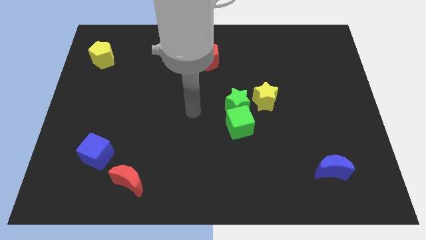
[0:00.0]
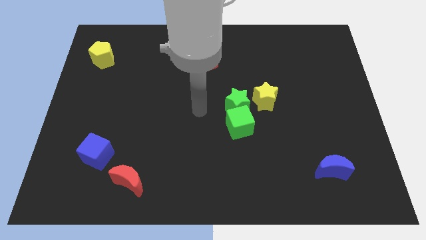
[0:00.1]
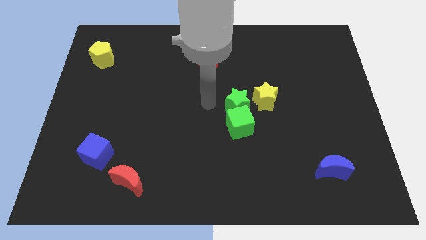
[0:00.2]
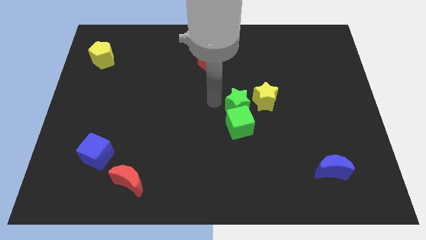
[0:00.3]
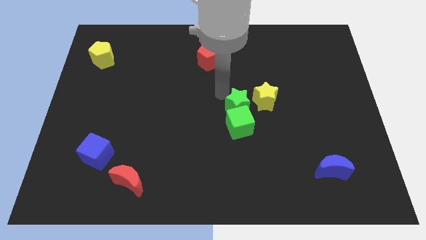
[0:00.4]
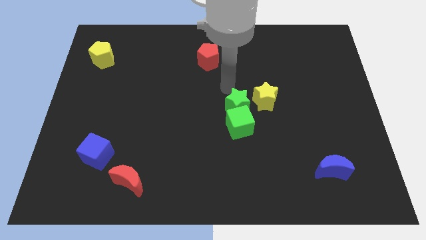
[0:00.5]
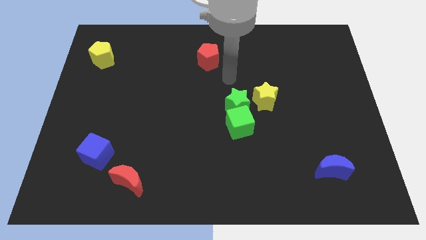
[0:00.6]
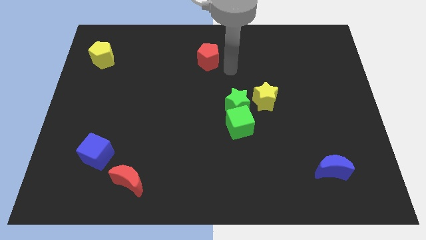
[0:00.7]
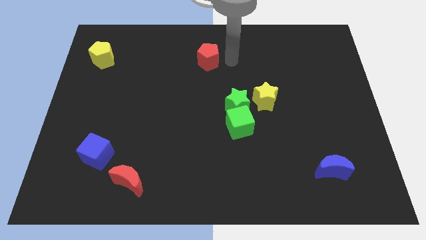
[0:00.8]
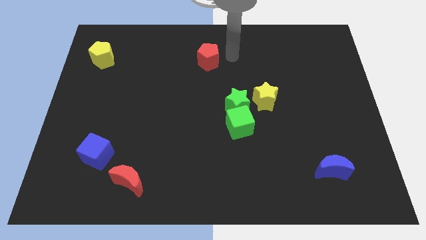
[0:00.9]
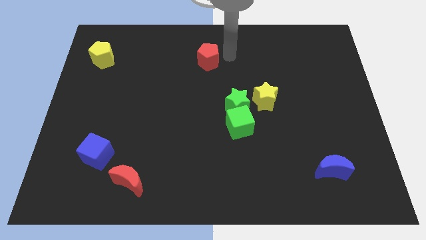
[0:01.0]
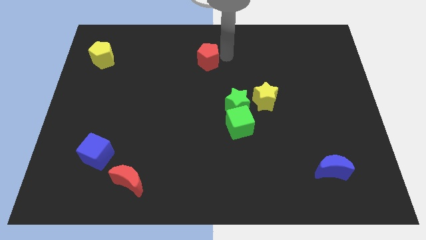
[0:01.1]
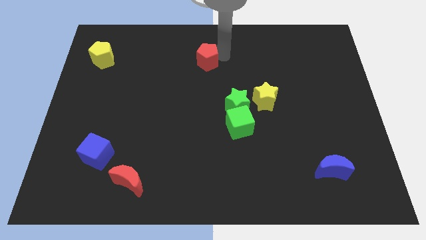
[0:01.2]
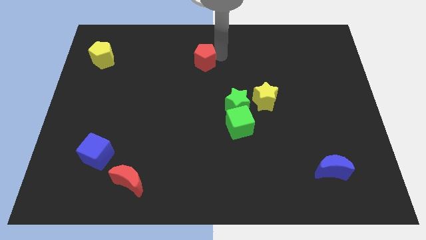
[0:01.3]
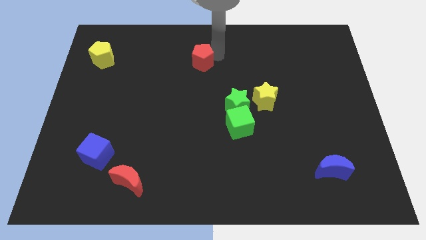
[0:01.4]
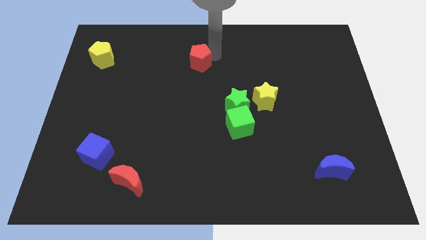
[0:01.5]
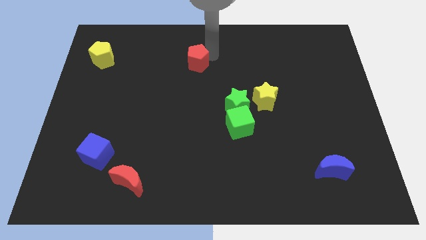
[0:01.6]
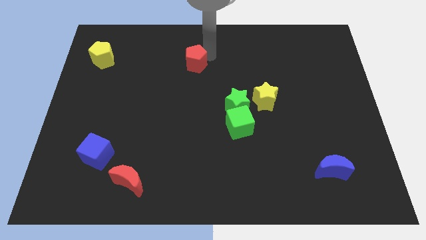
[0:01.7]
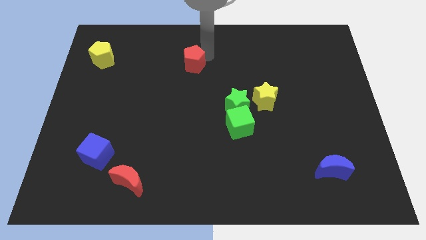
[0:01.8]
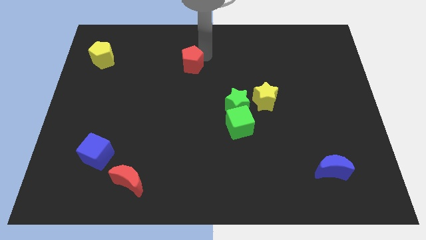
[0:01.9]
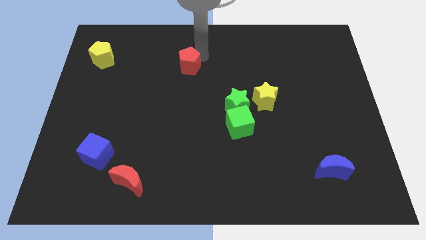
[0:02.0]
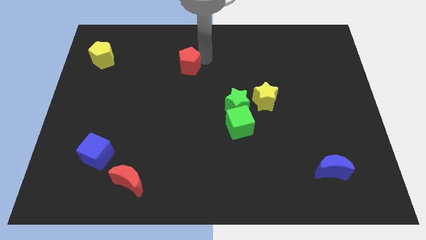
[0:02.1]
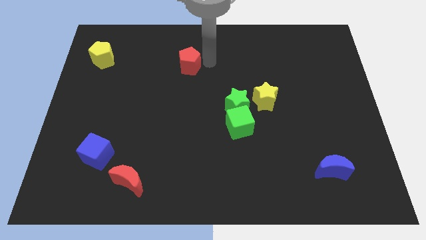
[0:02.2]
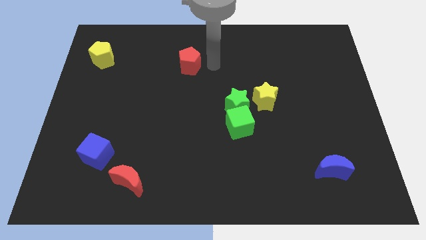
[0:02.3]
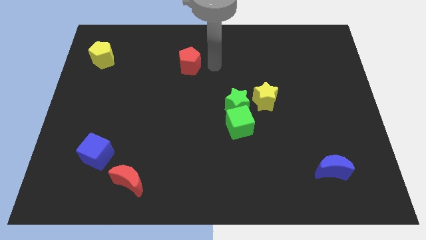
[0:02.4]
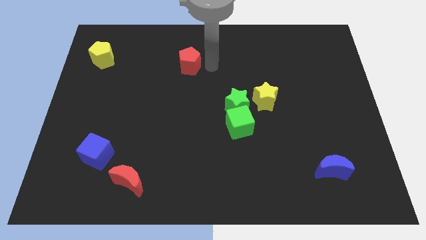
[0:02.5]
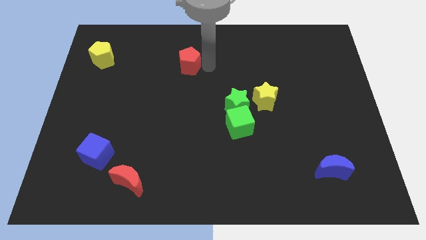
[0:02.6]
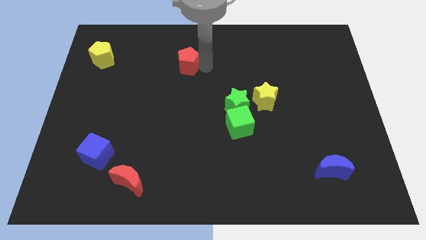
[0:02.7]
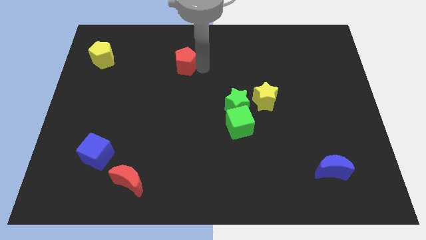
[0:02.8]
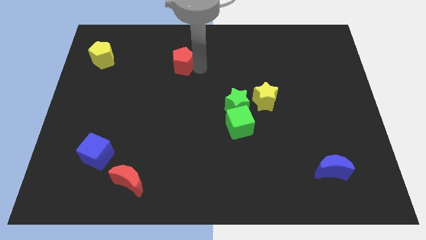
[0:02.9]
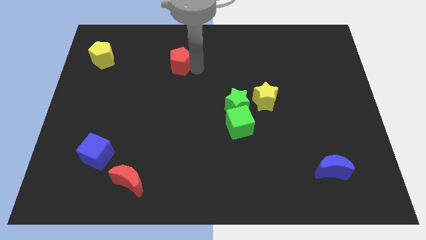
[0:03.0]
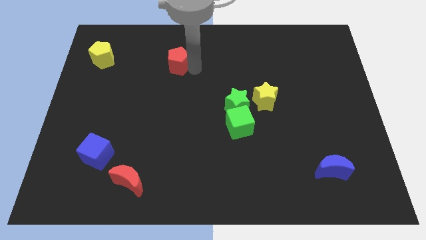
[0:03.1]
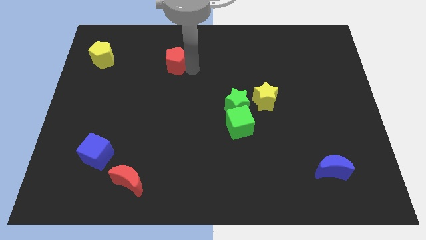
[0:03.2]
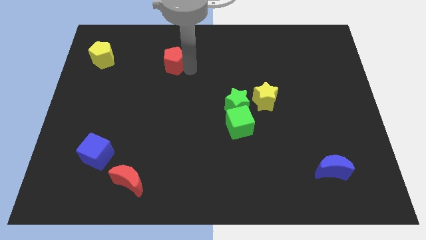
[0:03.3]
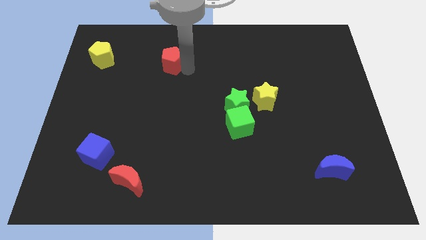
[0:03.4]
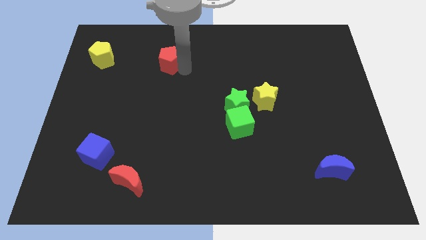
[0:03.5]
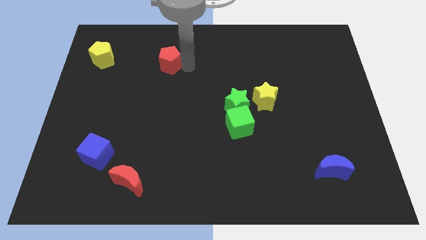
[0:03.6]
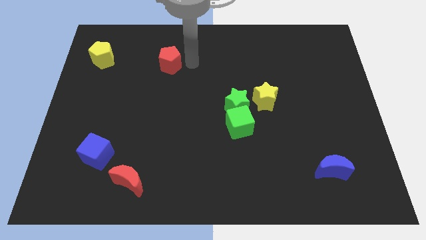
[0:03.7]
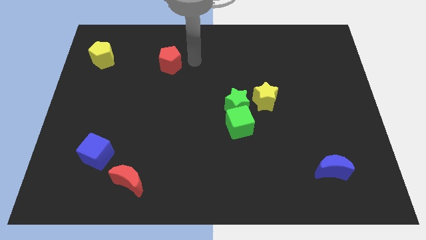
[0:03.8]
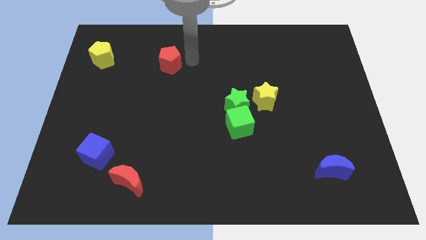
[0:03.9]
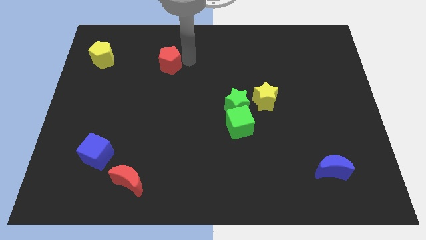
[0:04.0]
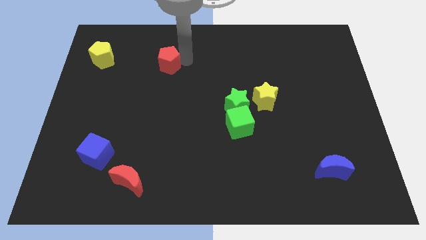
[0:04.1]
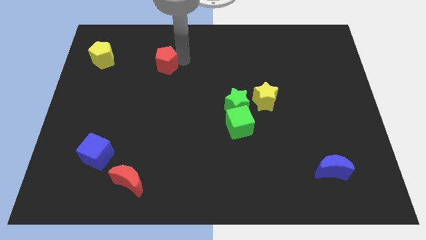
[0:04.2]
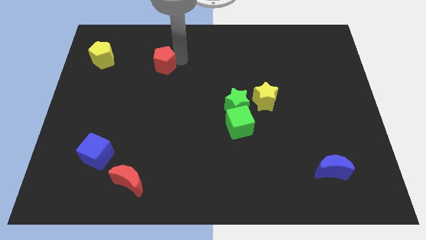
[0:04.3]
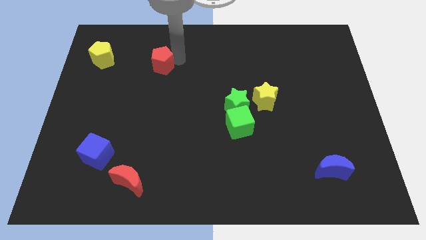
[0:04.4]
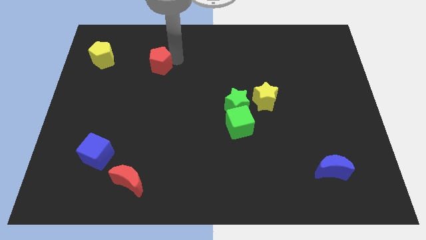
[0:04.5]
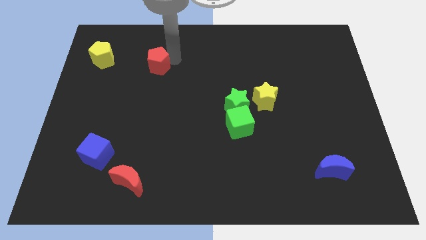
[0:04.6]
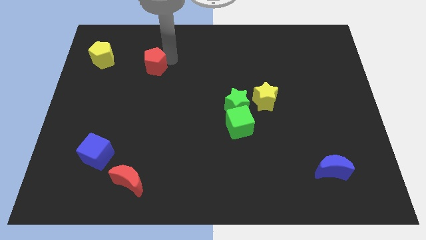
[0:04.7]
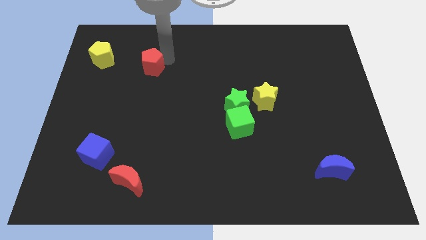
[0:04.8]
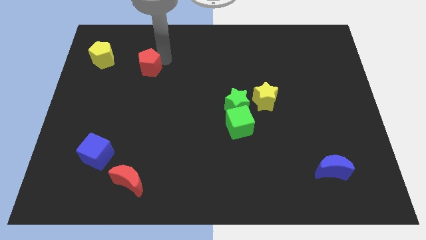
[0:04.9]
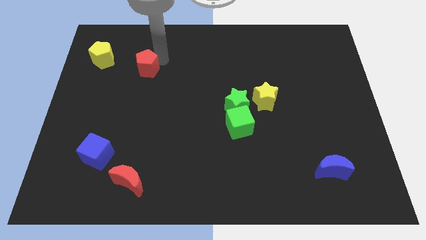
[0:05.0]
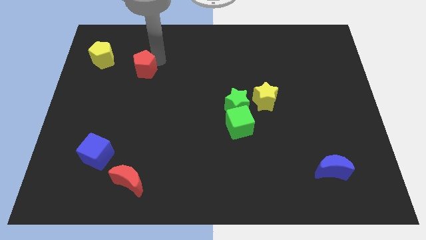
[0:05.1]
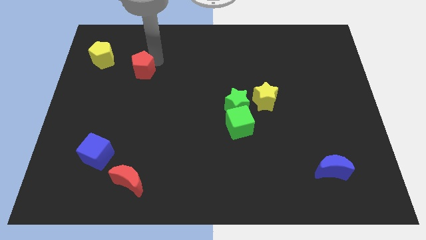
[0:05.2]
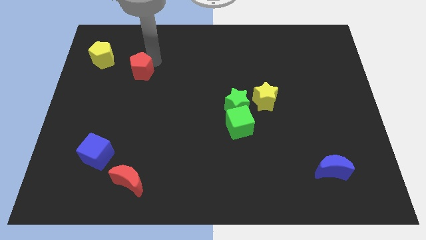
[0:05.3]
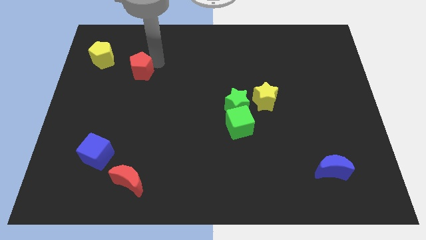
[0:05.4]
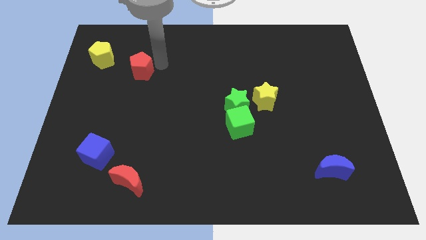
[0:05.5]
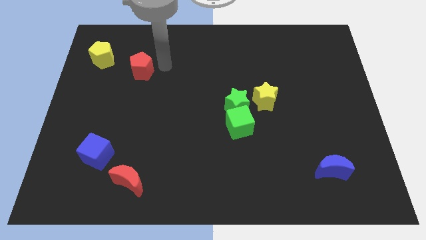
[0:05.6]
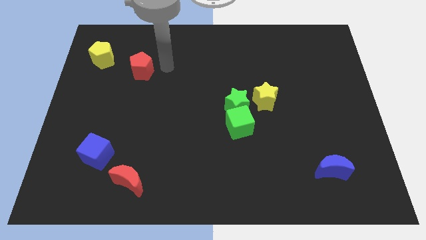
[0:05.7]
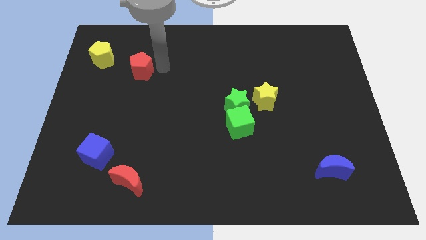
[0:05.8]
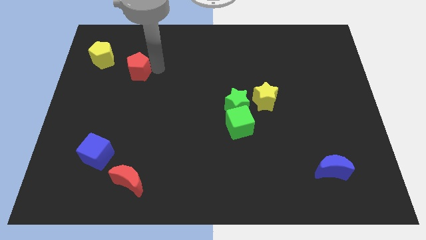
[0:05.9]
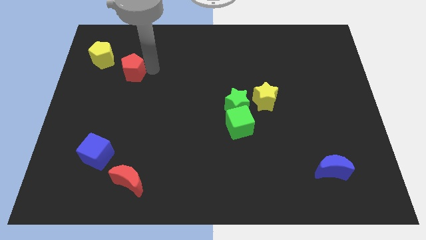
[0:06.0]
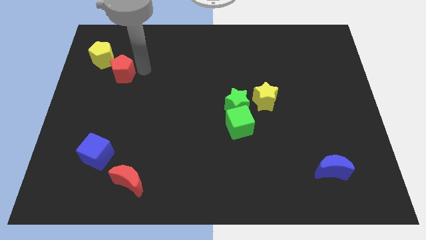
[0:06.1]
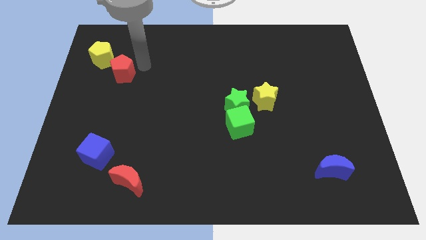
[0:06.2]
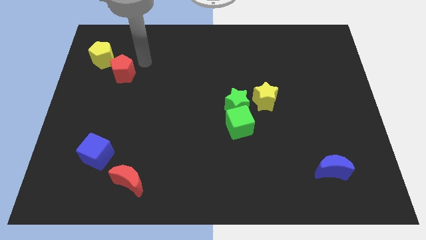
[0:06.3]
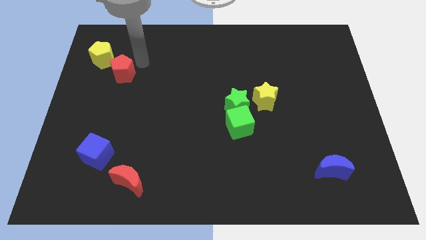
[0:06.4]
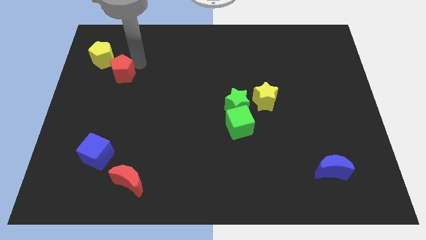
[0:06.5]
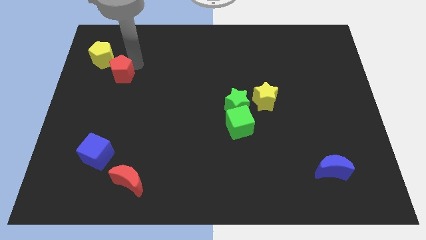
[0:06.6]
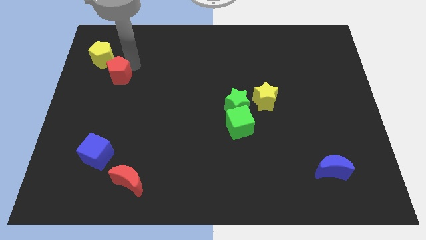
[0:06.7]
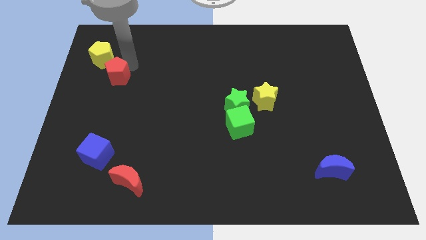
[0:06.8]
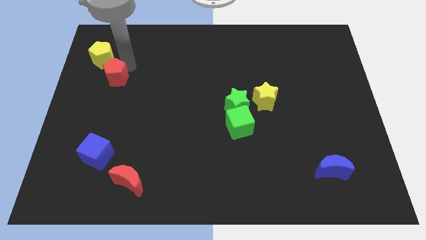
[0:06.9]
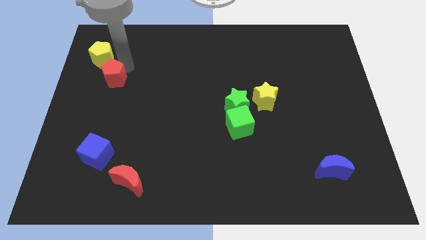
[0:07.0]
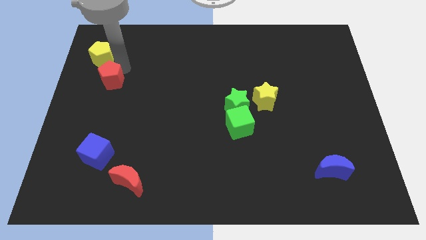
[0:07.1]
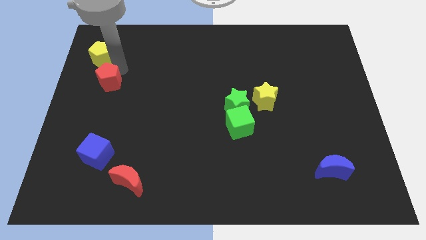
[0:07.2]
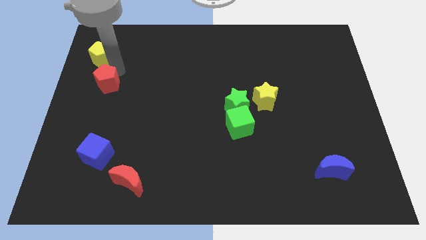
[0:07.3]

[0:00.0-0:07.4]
move the red pentagon to the left side of the board
